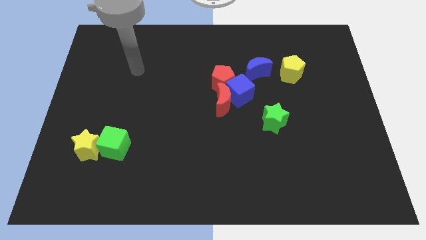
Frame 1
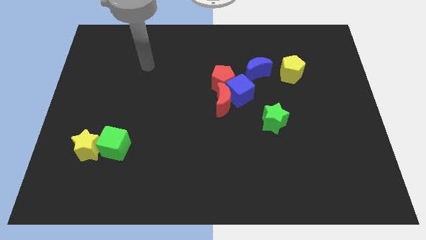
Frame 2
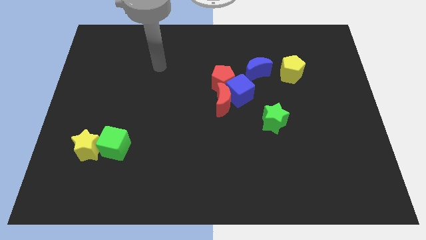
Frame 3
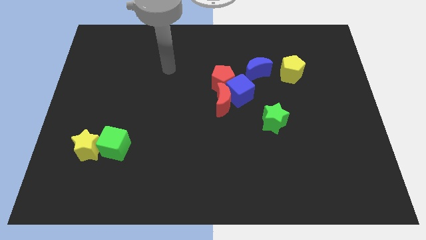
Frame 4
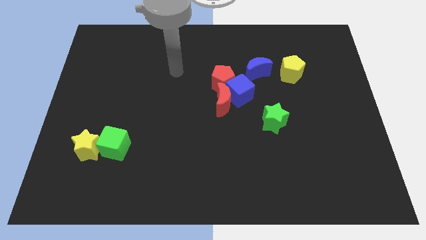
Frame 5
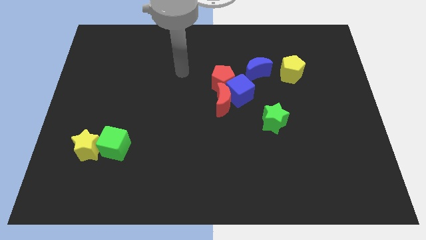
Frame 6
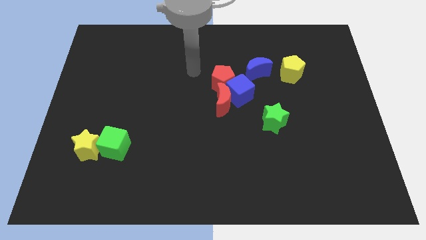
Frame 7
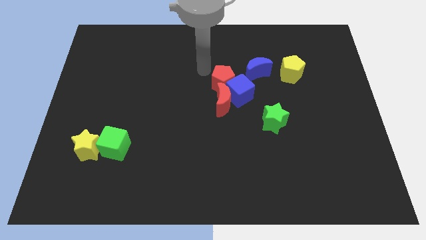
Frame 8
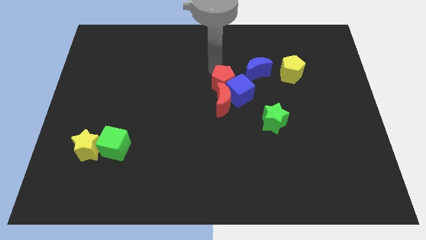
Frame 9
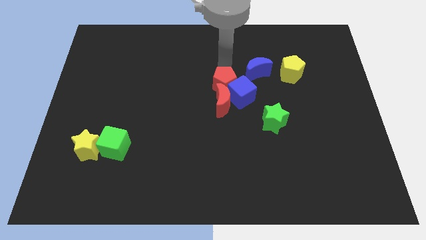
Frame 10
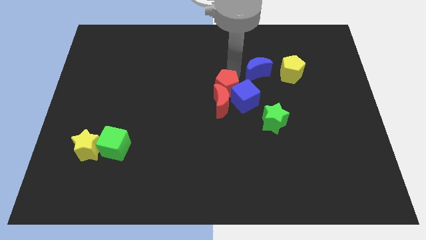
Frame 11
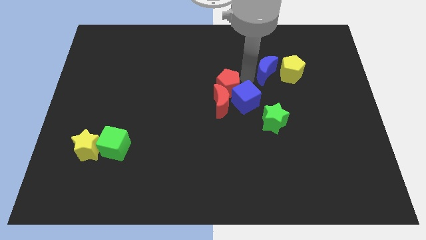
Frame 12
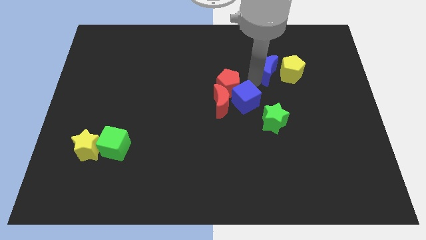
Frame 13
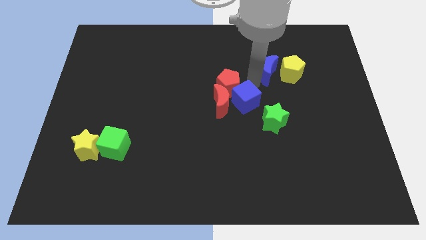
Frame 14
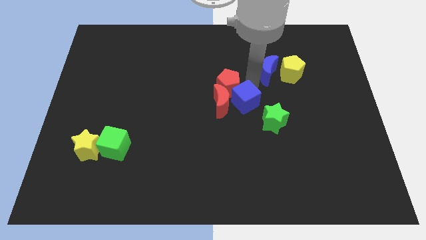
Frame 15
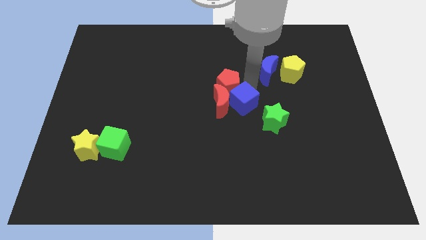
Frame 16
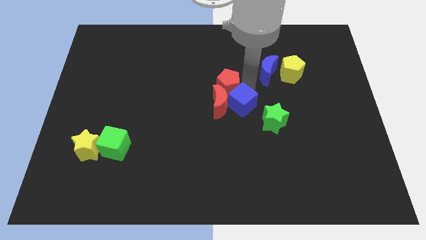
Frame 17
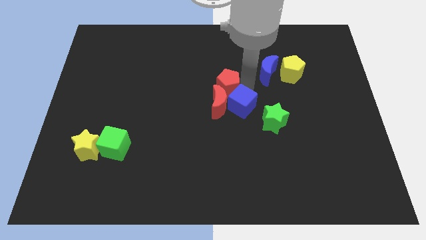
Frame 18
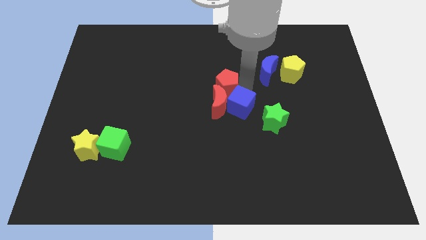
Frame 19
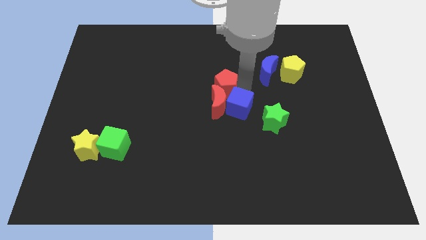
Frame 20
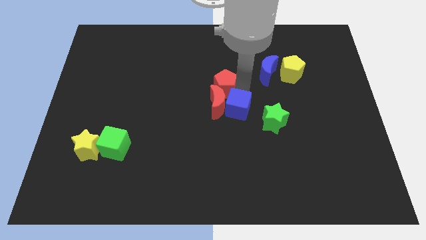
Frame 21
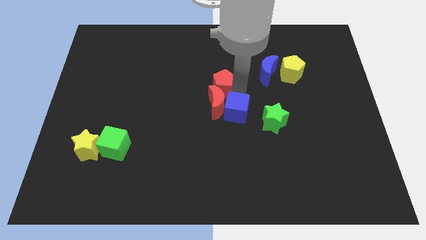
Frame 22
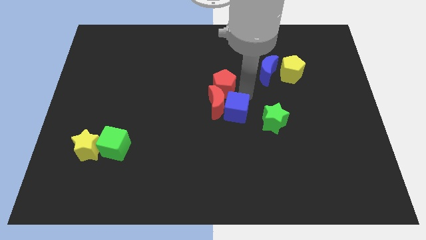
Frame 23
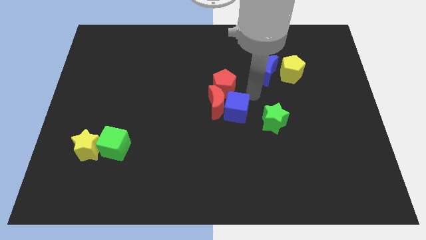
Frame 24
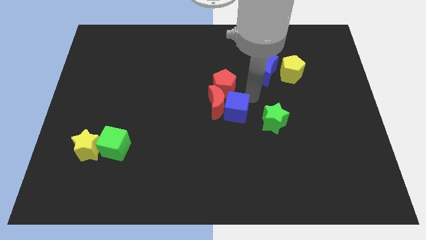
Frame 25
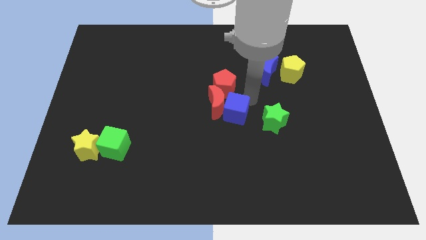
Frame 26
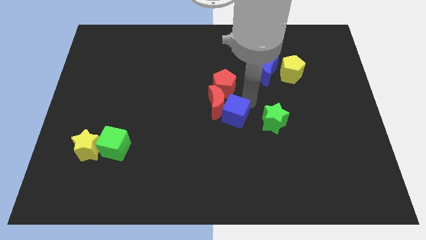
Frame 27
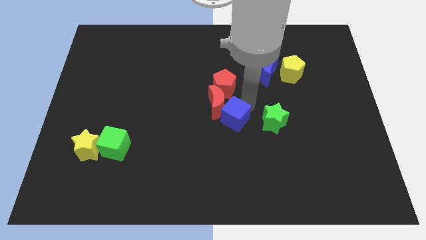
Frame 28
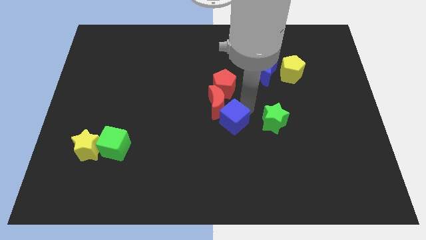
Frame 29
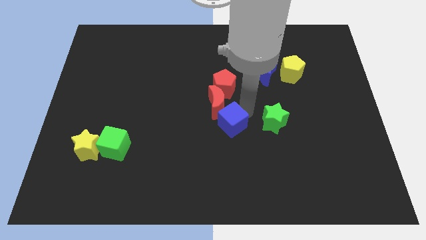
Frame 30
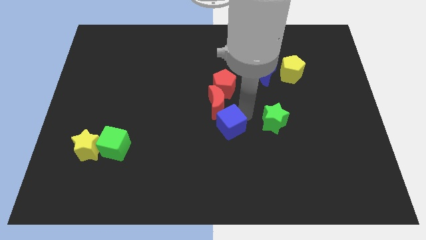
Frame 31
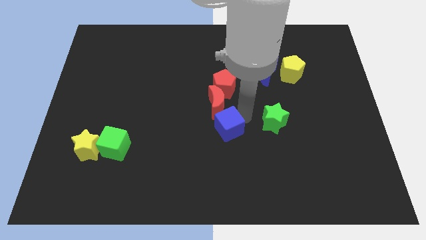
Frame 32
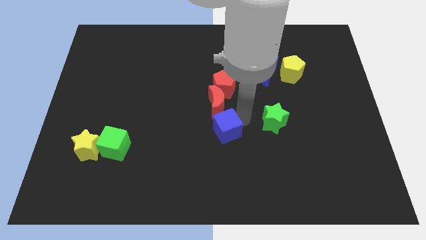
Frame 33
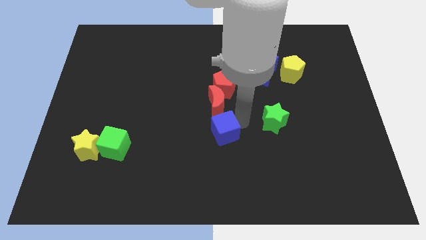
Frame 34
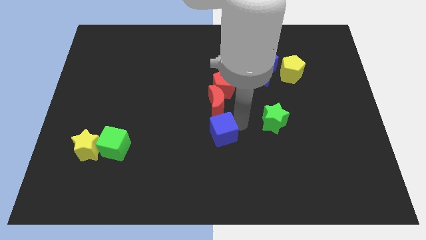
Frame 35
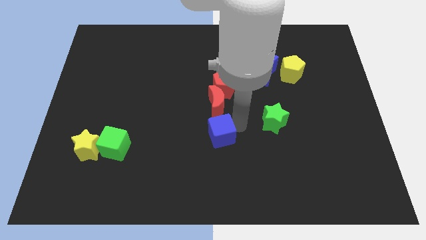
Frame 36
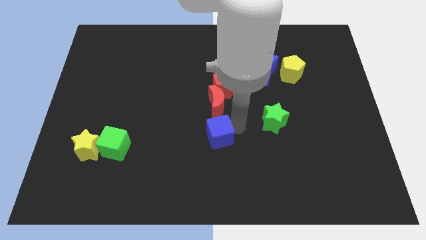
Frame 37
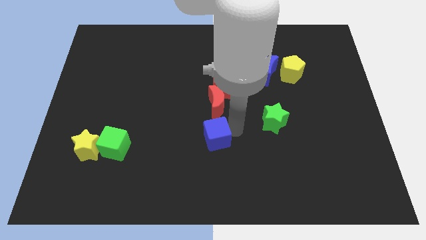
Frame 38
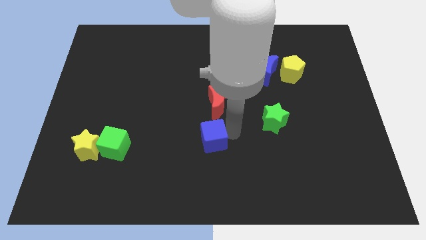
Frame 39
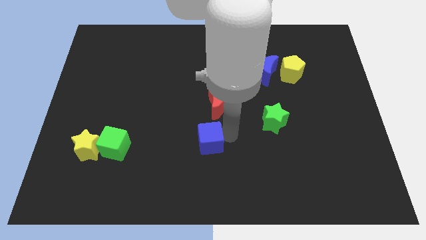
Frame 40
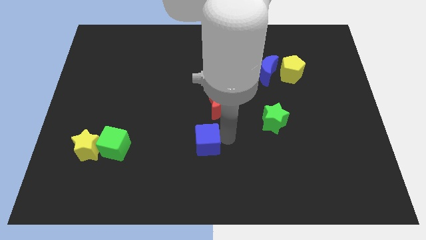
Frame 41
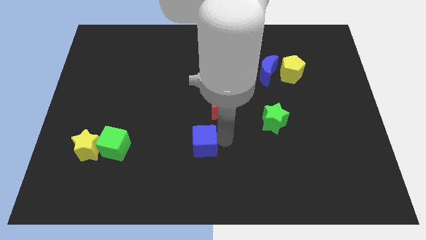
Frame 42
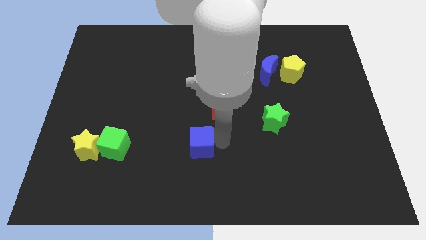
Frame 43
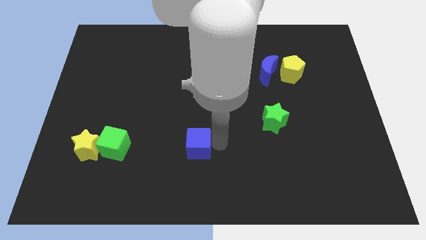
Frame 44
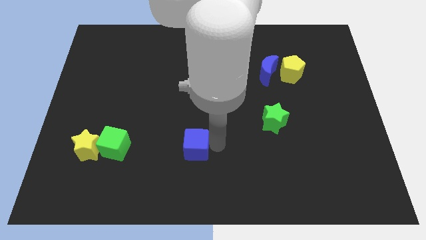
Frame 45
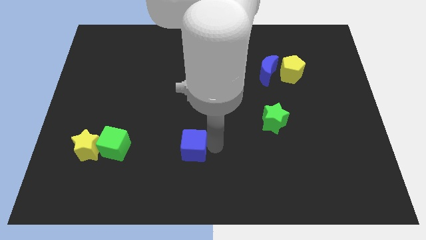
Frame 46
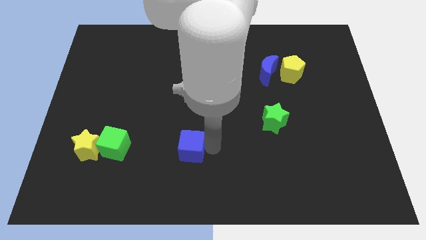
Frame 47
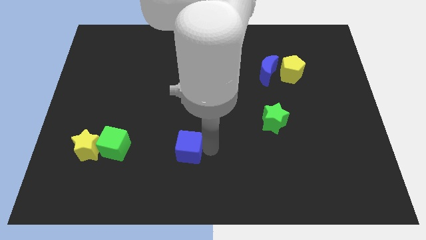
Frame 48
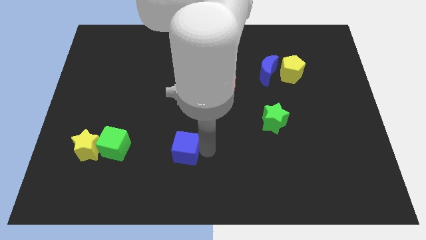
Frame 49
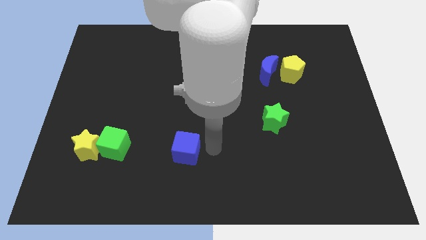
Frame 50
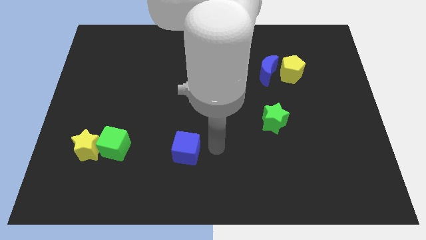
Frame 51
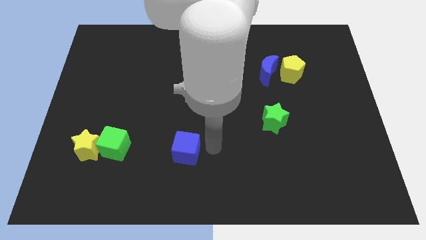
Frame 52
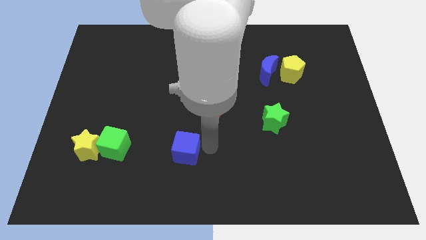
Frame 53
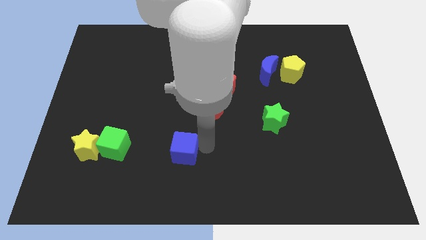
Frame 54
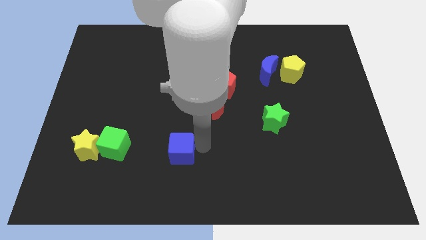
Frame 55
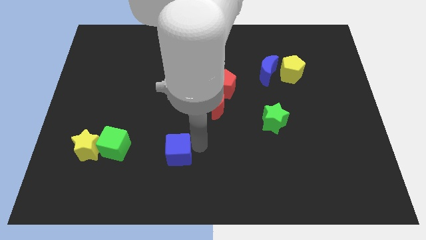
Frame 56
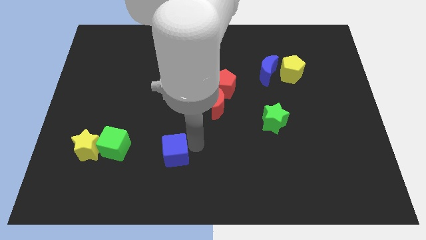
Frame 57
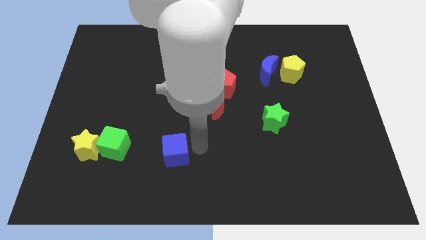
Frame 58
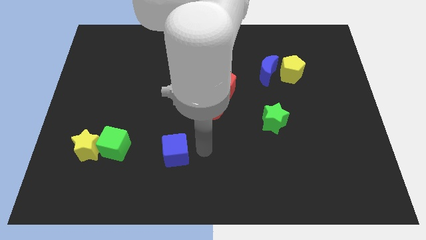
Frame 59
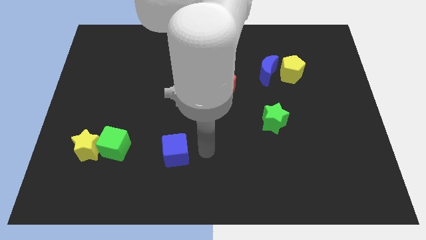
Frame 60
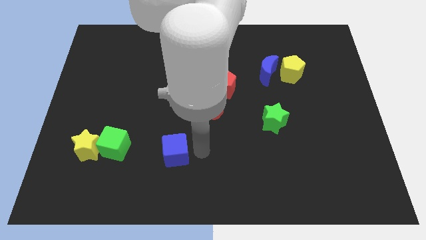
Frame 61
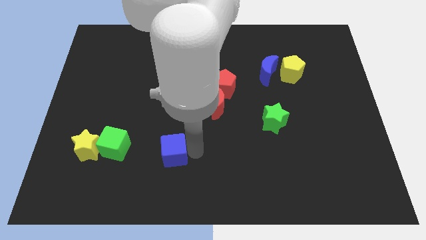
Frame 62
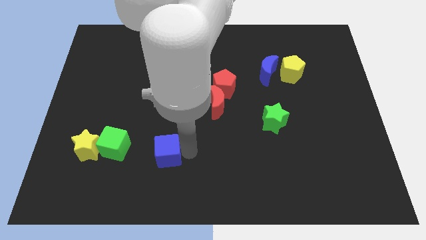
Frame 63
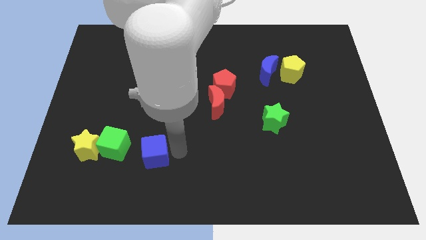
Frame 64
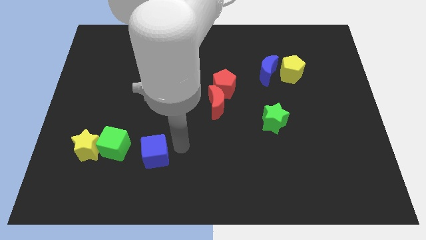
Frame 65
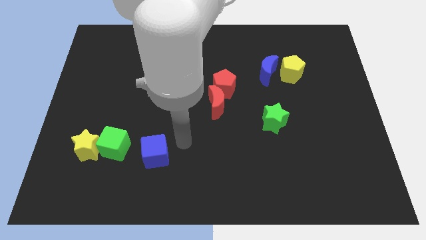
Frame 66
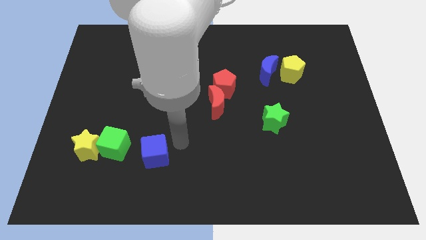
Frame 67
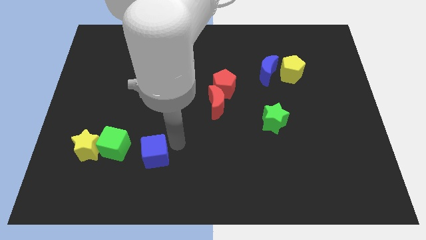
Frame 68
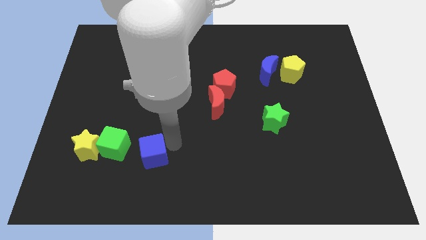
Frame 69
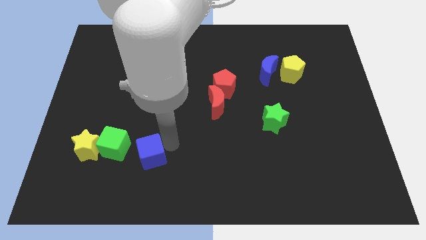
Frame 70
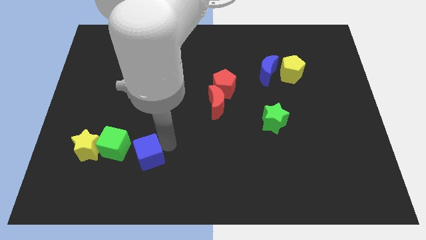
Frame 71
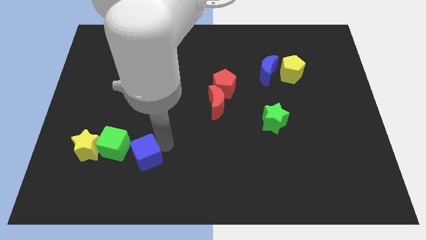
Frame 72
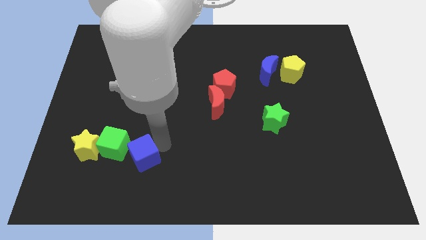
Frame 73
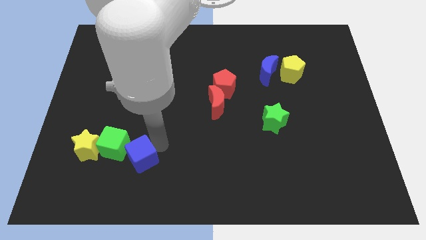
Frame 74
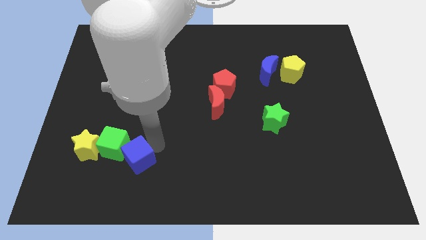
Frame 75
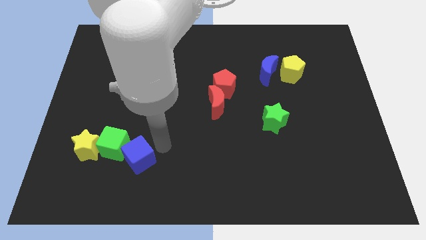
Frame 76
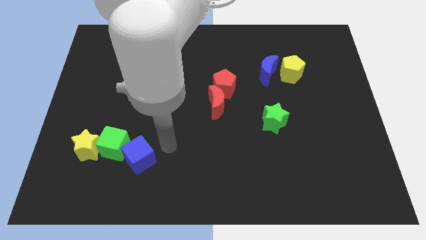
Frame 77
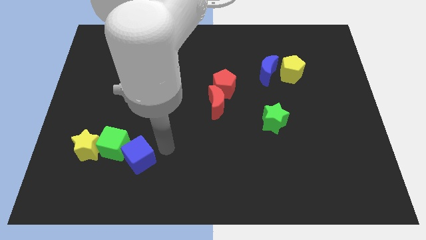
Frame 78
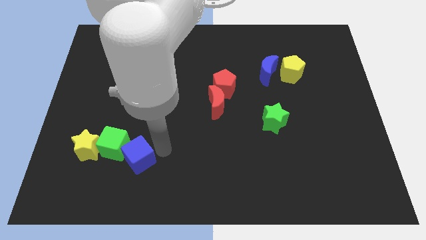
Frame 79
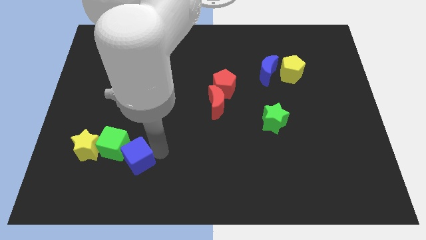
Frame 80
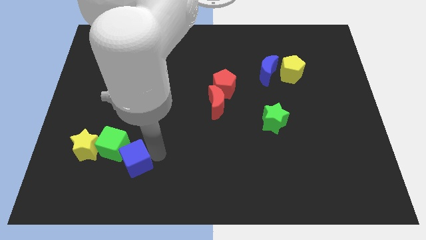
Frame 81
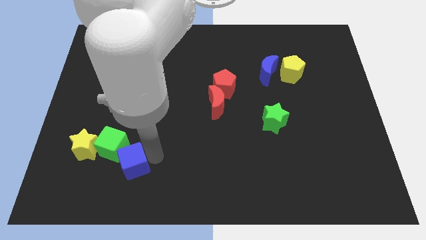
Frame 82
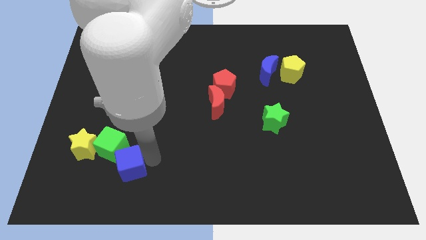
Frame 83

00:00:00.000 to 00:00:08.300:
put the blue cube to the bottom right of the yellow star
